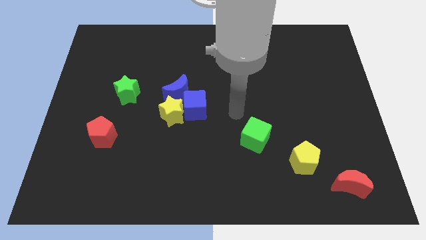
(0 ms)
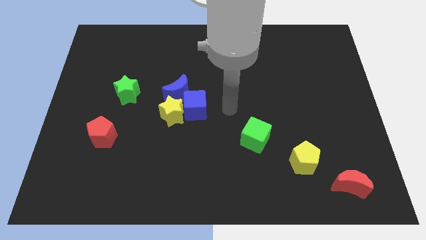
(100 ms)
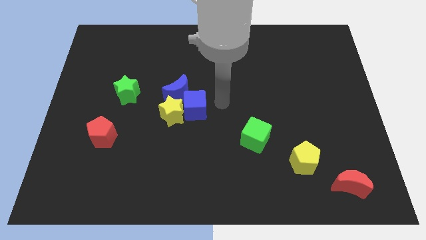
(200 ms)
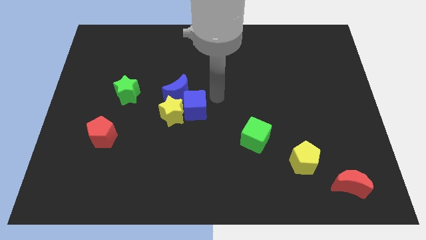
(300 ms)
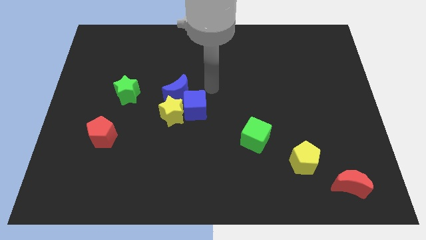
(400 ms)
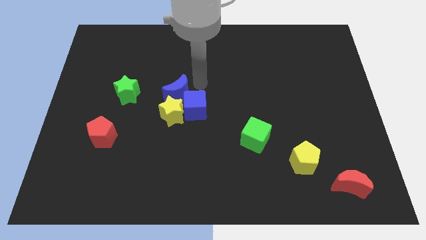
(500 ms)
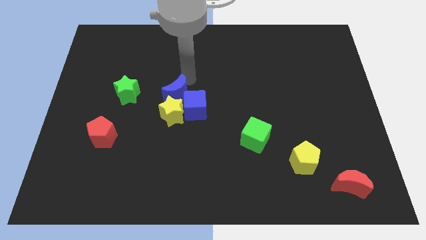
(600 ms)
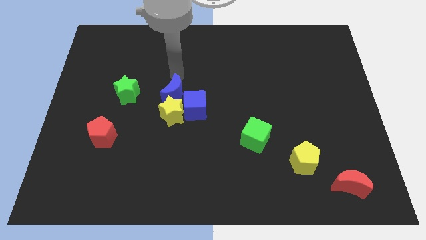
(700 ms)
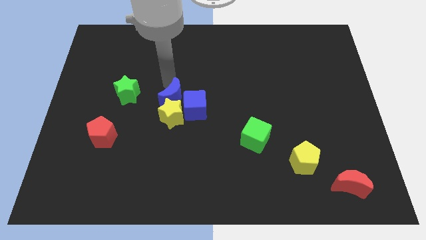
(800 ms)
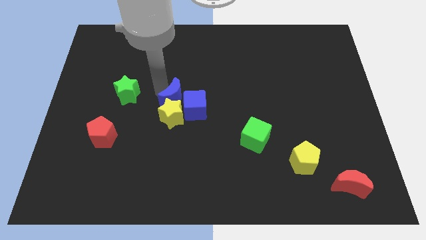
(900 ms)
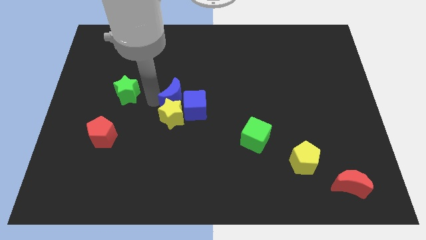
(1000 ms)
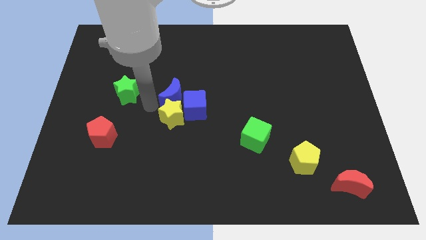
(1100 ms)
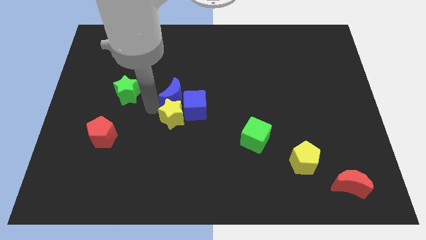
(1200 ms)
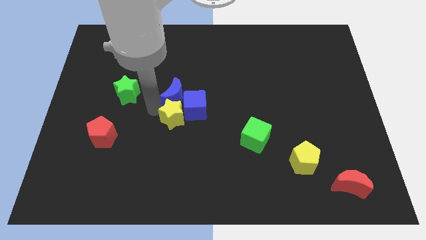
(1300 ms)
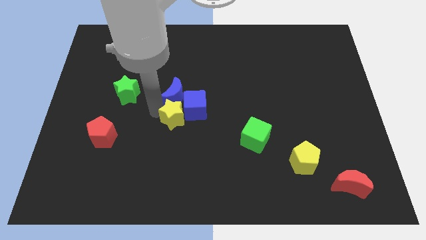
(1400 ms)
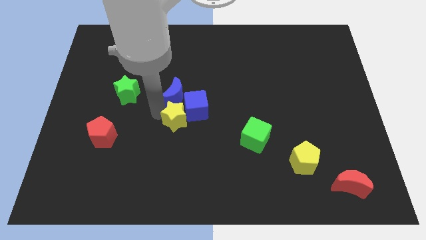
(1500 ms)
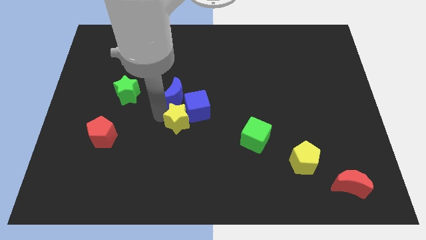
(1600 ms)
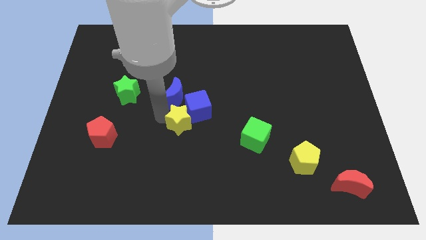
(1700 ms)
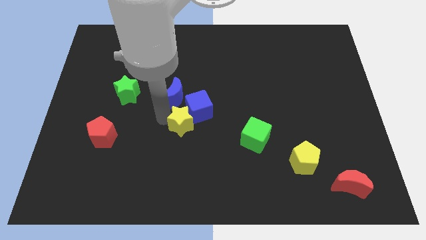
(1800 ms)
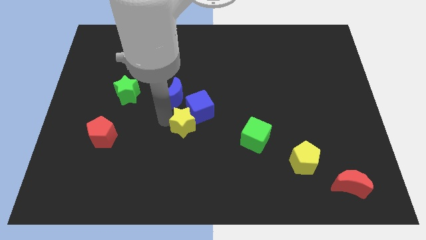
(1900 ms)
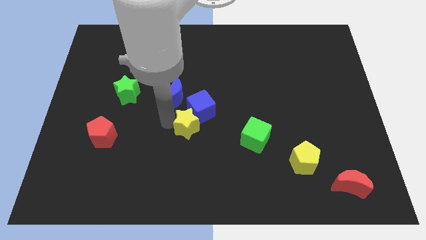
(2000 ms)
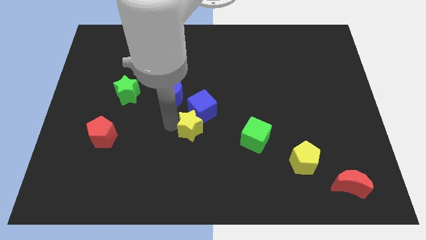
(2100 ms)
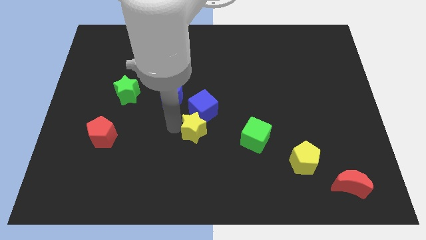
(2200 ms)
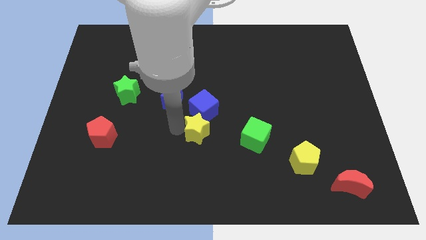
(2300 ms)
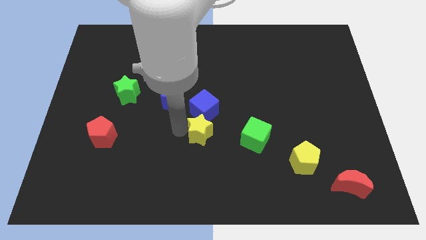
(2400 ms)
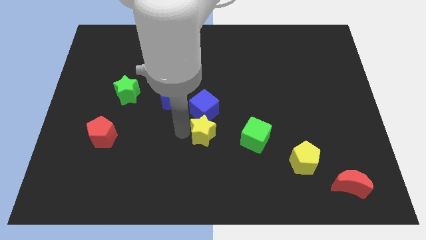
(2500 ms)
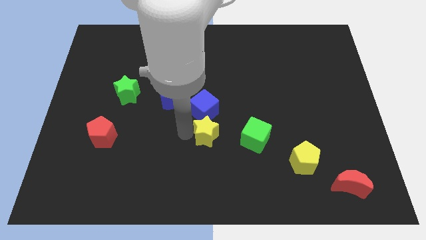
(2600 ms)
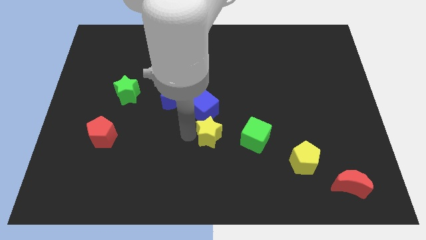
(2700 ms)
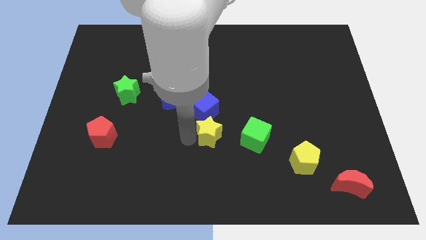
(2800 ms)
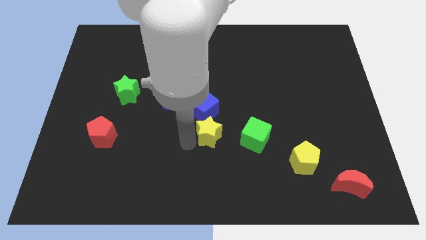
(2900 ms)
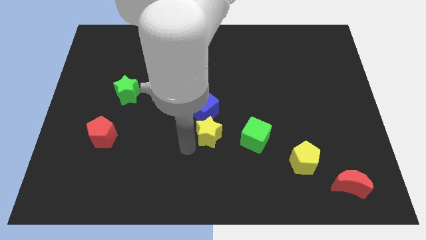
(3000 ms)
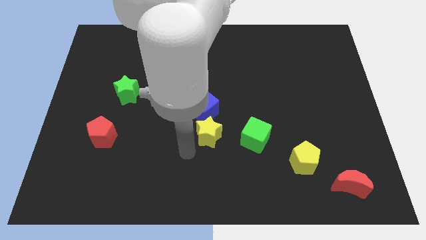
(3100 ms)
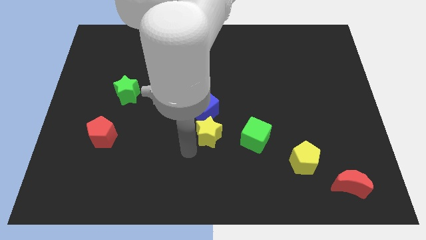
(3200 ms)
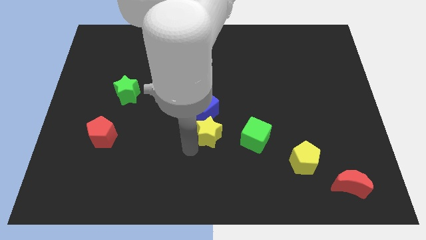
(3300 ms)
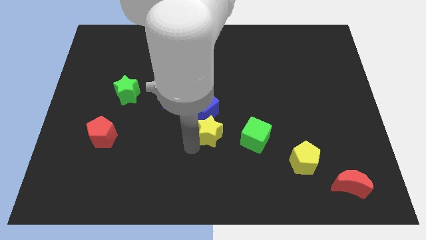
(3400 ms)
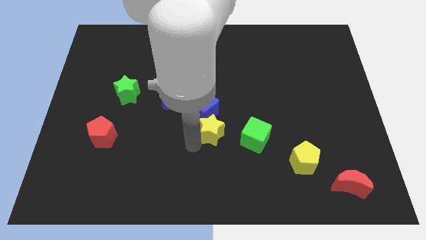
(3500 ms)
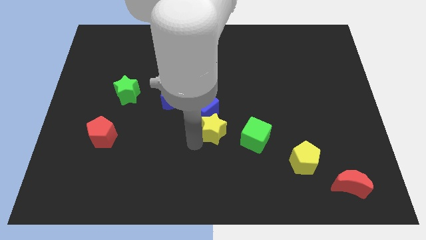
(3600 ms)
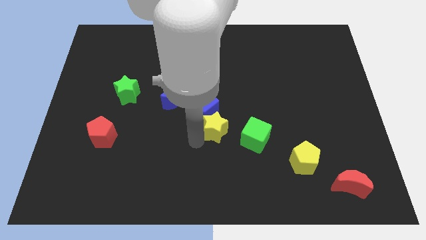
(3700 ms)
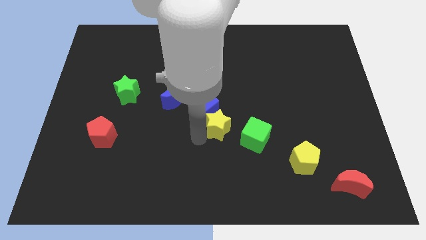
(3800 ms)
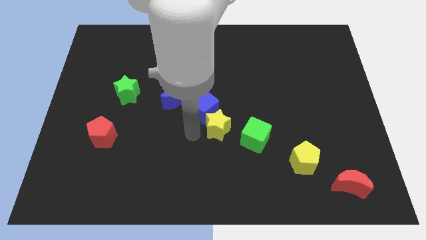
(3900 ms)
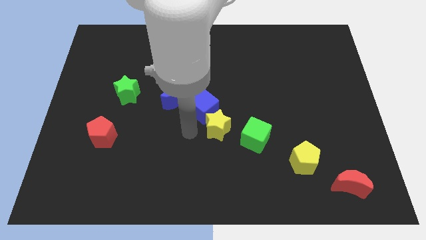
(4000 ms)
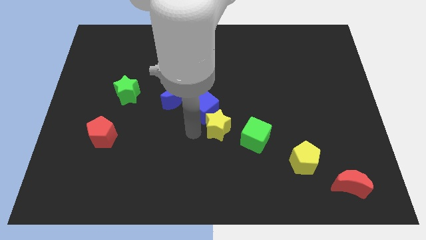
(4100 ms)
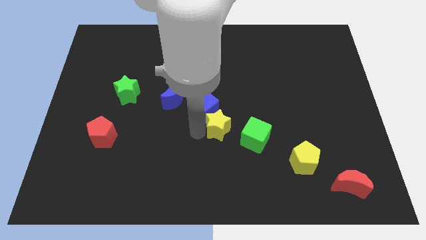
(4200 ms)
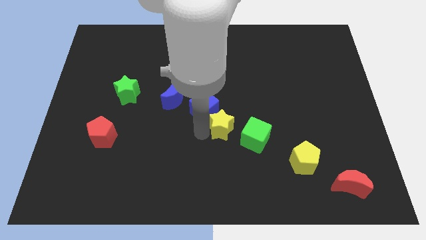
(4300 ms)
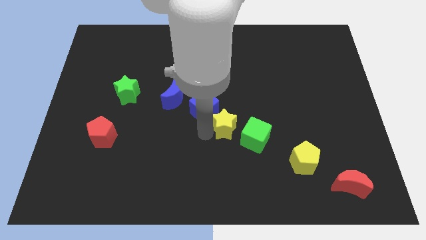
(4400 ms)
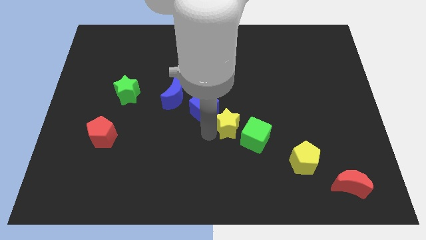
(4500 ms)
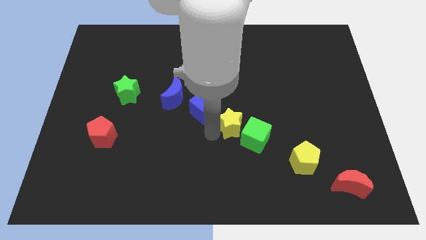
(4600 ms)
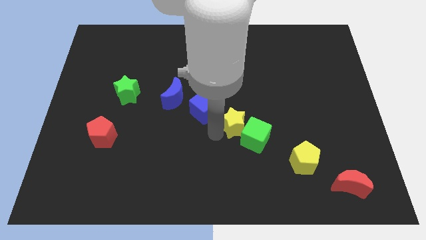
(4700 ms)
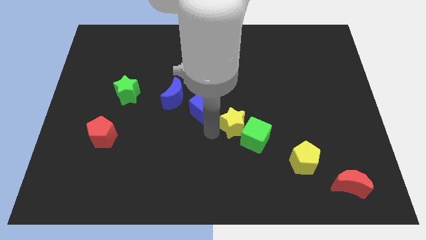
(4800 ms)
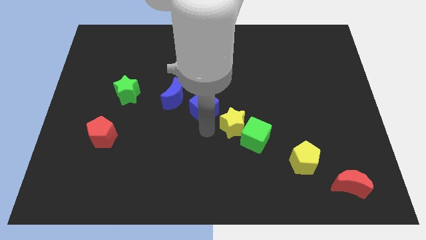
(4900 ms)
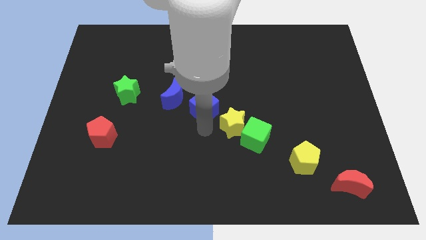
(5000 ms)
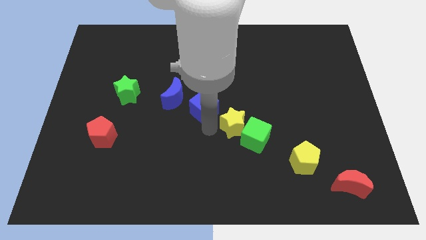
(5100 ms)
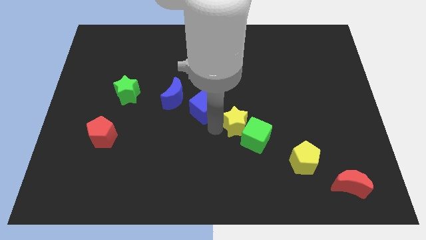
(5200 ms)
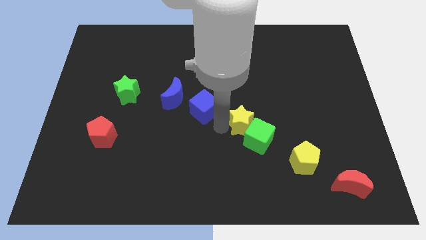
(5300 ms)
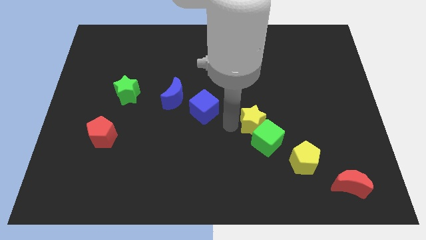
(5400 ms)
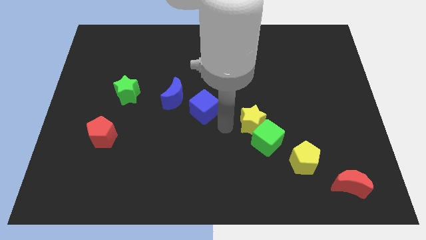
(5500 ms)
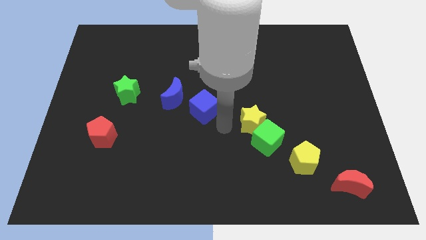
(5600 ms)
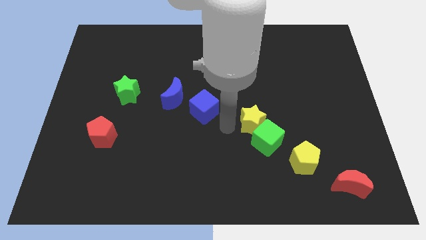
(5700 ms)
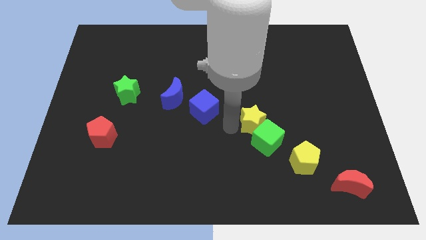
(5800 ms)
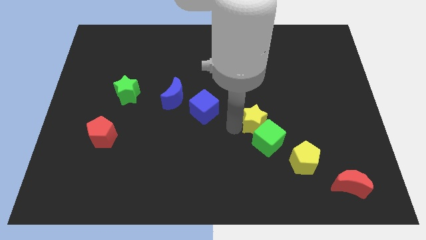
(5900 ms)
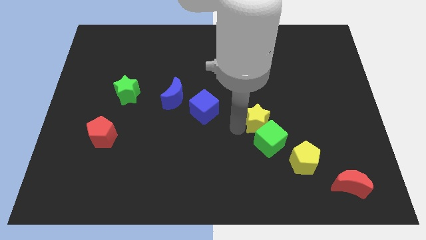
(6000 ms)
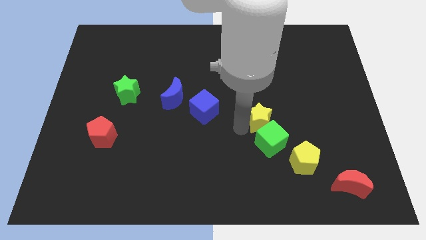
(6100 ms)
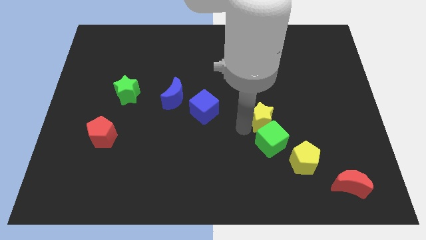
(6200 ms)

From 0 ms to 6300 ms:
push the yellow star right

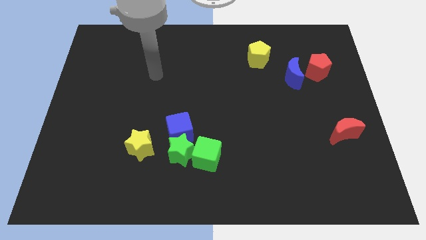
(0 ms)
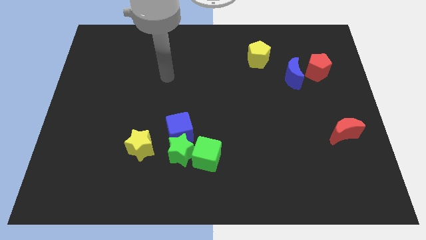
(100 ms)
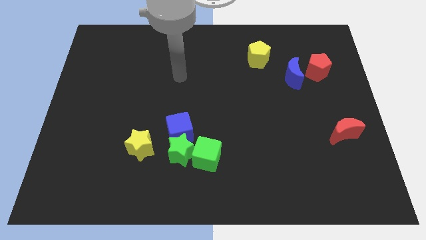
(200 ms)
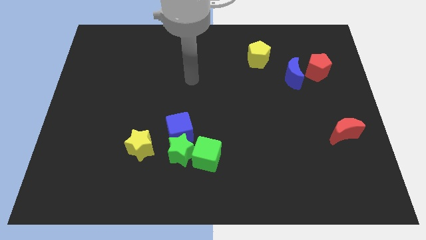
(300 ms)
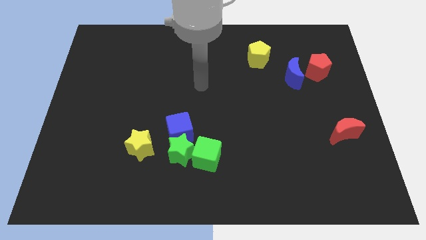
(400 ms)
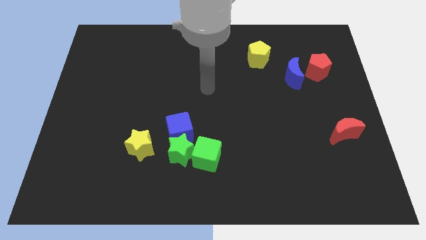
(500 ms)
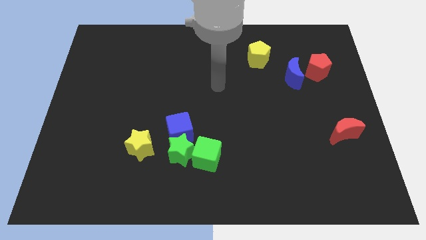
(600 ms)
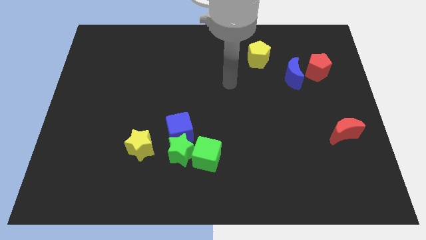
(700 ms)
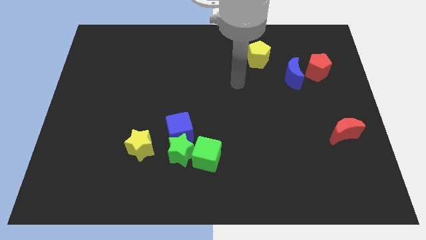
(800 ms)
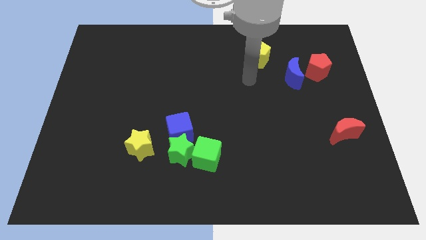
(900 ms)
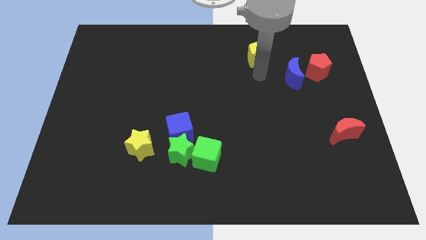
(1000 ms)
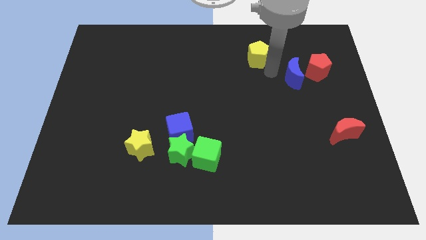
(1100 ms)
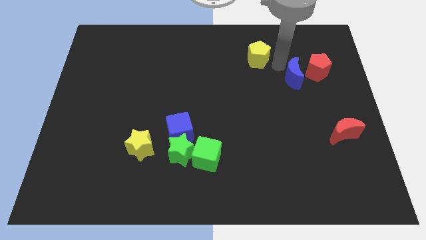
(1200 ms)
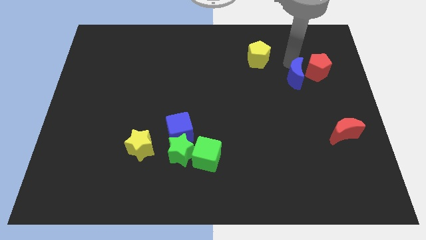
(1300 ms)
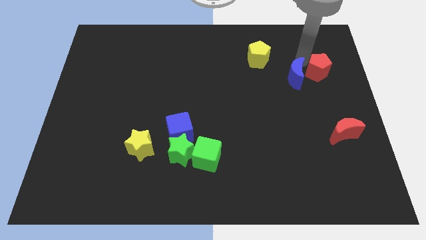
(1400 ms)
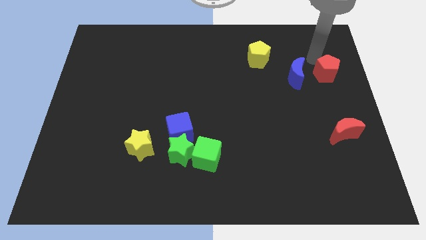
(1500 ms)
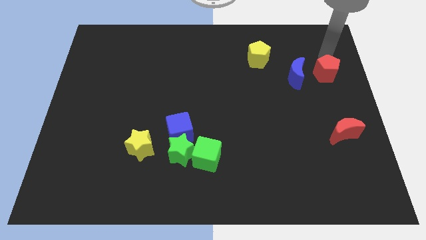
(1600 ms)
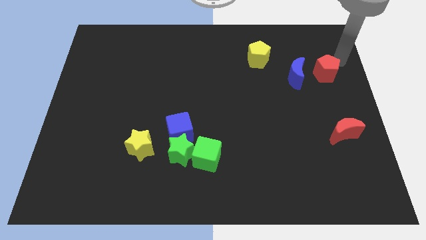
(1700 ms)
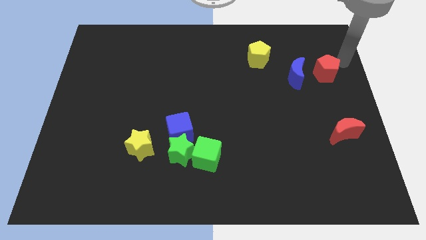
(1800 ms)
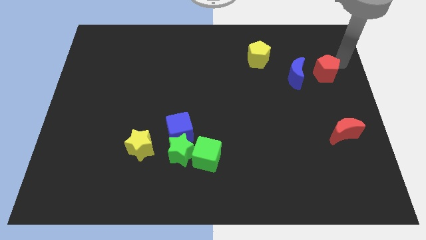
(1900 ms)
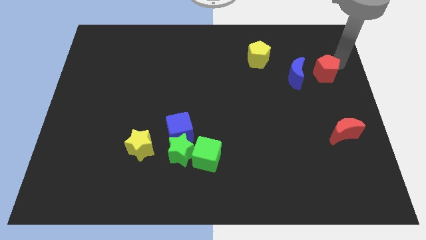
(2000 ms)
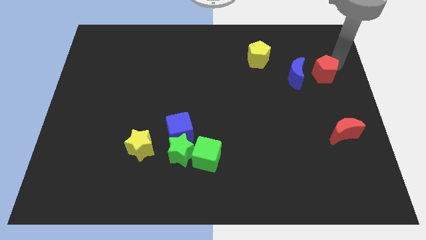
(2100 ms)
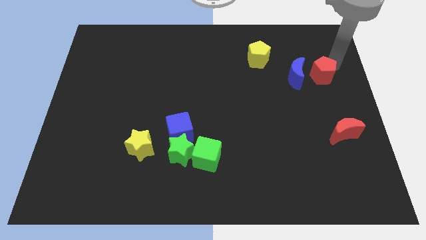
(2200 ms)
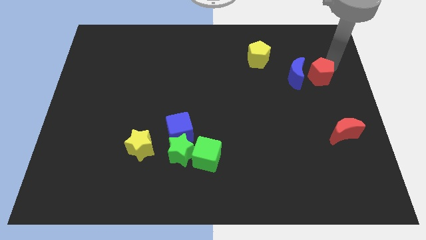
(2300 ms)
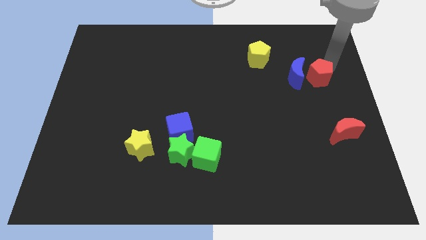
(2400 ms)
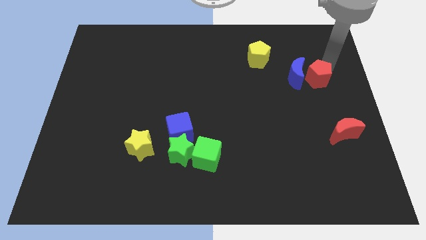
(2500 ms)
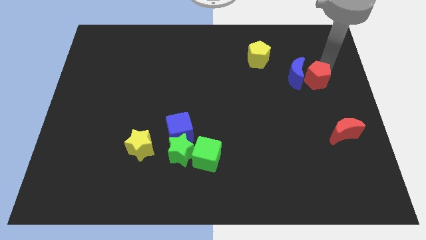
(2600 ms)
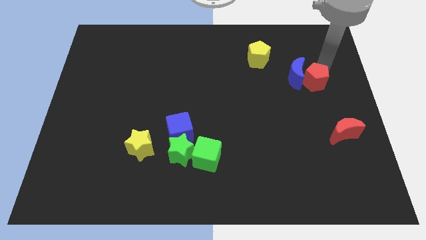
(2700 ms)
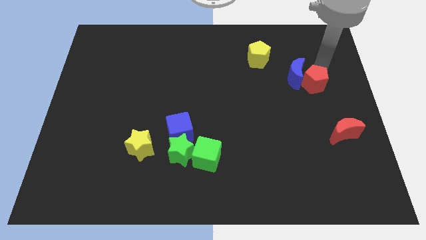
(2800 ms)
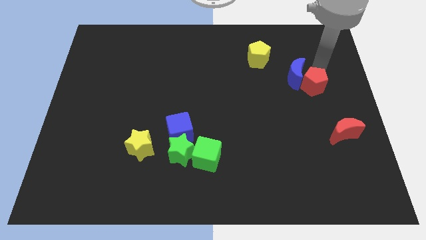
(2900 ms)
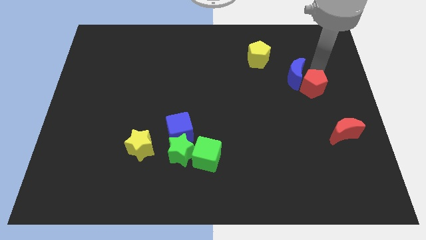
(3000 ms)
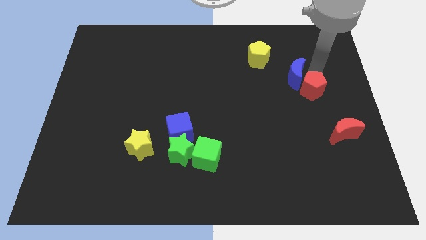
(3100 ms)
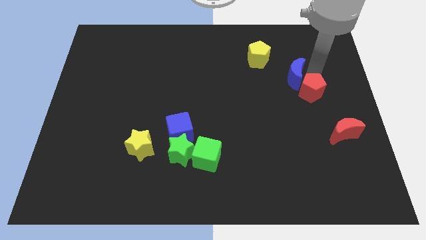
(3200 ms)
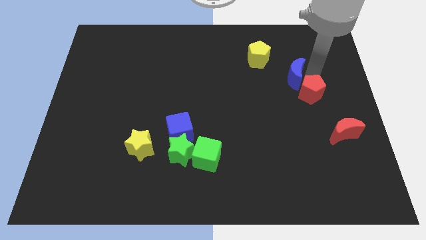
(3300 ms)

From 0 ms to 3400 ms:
move the red pentagon somewhat down and left
